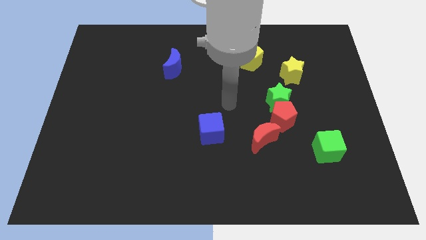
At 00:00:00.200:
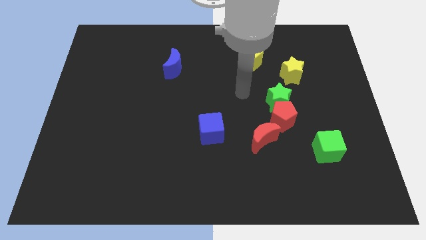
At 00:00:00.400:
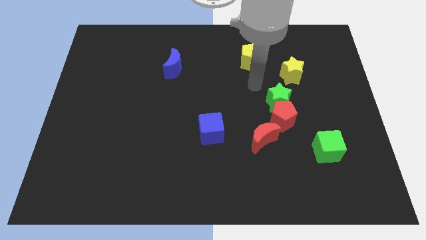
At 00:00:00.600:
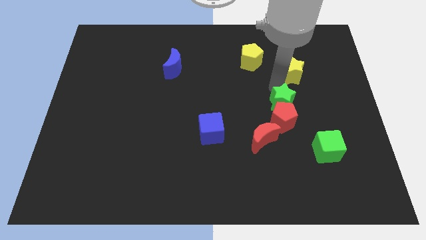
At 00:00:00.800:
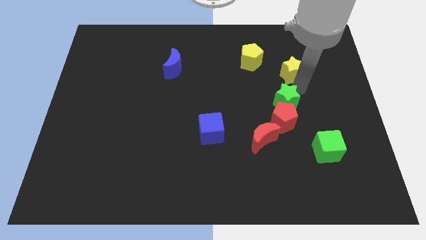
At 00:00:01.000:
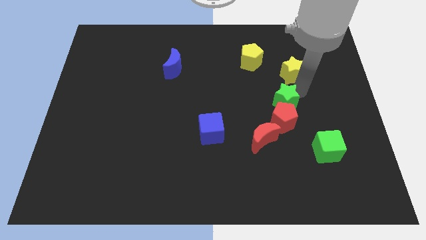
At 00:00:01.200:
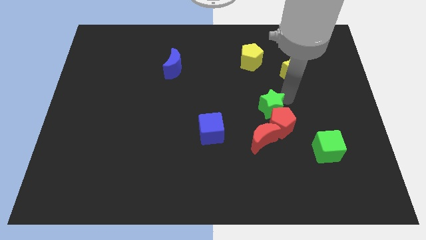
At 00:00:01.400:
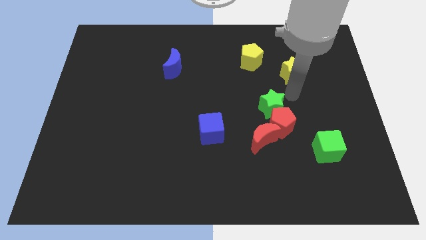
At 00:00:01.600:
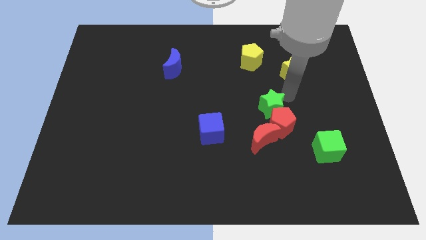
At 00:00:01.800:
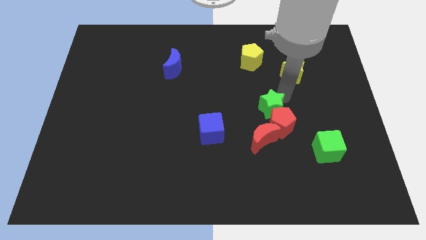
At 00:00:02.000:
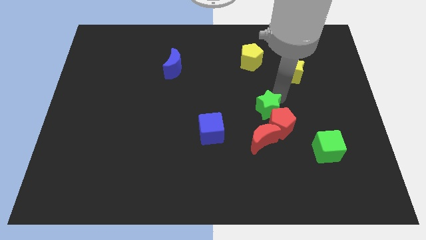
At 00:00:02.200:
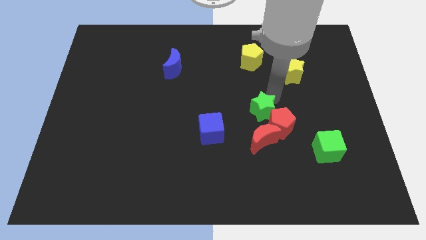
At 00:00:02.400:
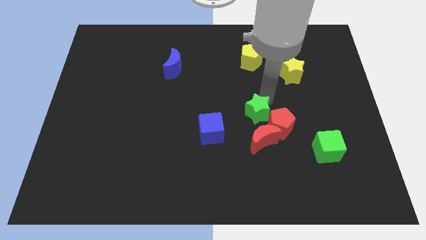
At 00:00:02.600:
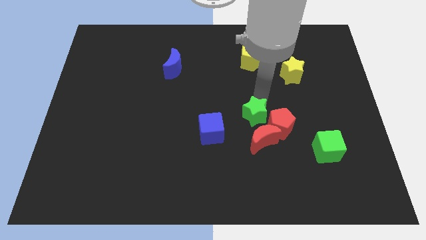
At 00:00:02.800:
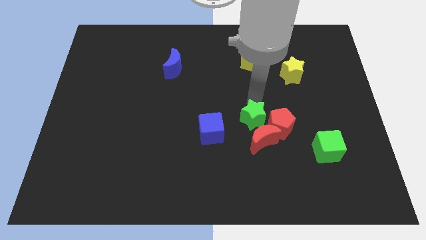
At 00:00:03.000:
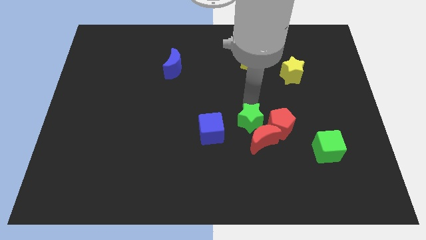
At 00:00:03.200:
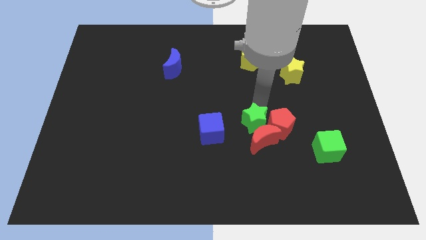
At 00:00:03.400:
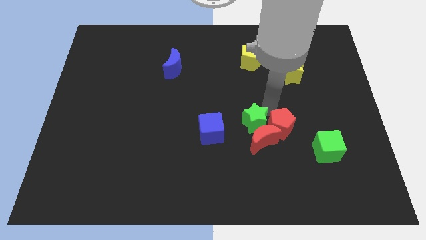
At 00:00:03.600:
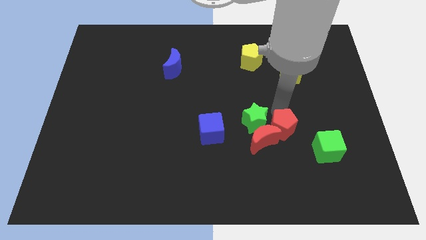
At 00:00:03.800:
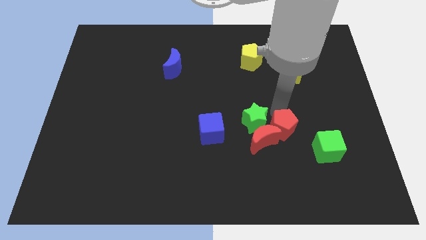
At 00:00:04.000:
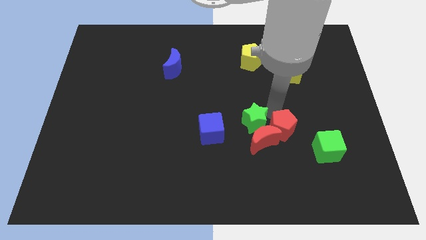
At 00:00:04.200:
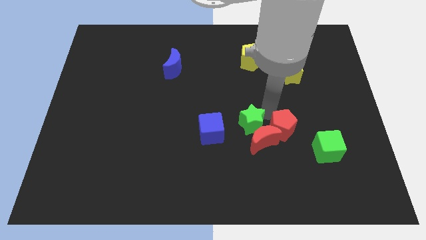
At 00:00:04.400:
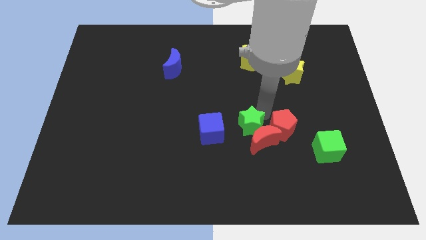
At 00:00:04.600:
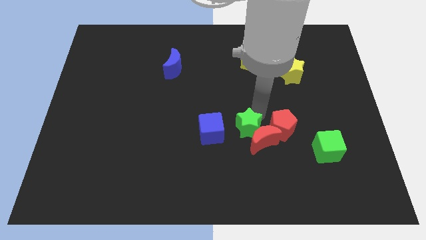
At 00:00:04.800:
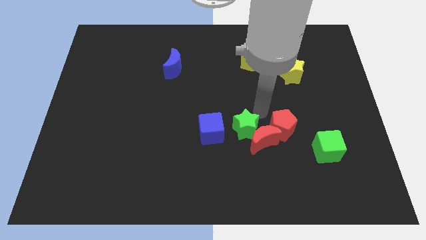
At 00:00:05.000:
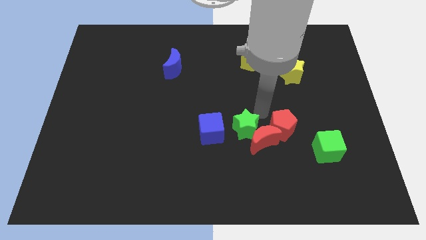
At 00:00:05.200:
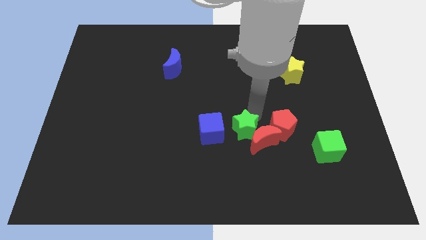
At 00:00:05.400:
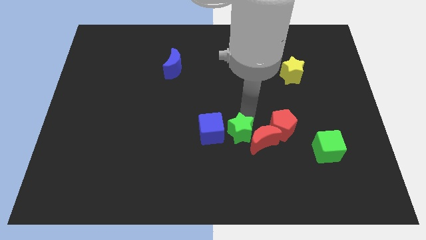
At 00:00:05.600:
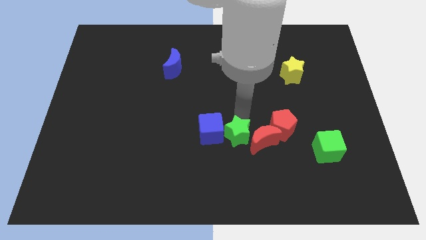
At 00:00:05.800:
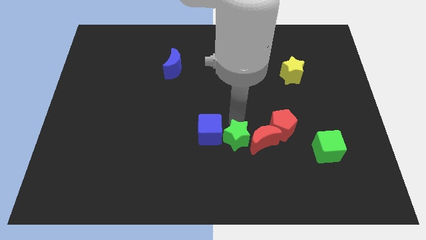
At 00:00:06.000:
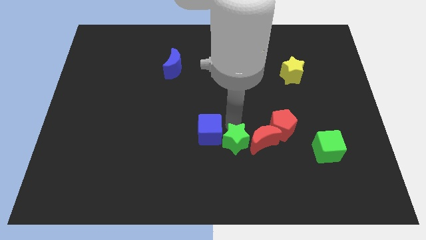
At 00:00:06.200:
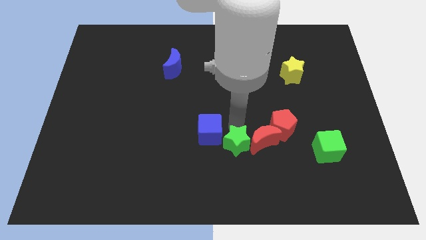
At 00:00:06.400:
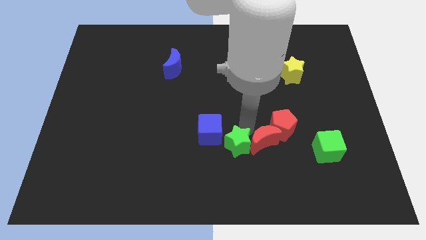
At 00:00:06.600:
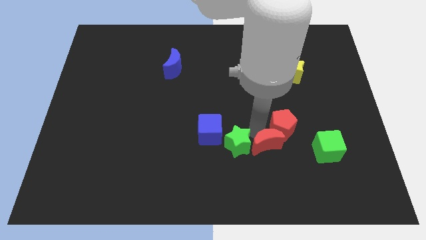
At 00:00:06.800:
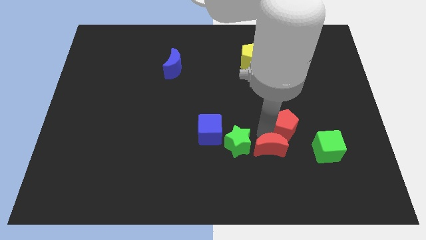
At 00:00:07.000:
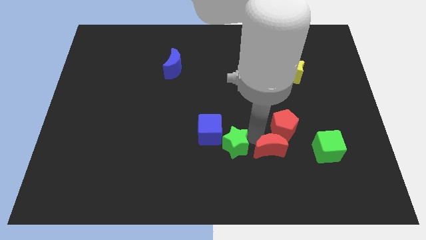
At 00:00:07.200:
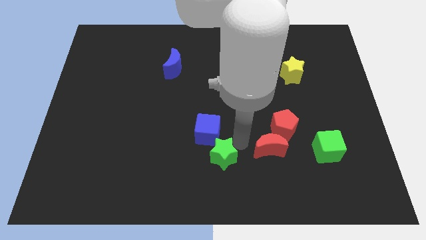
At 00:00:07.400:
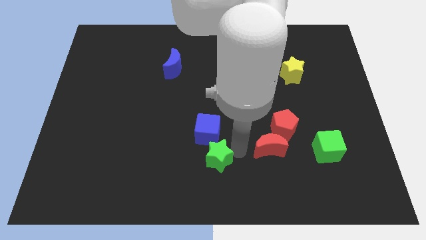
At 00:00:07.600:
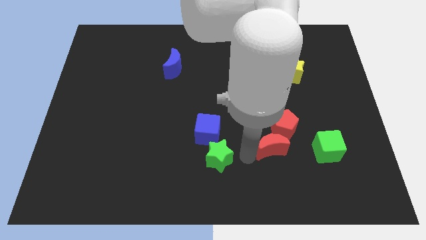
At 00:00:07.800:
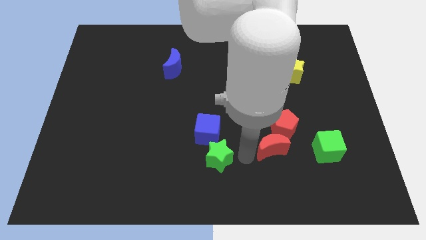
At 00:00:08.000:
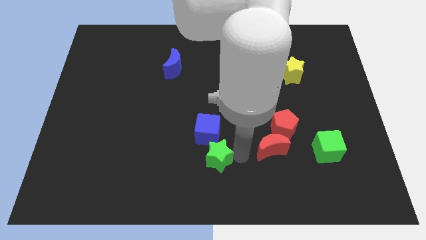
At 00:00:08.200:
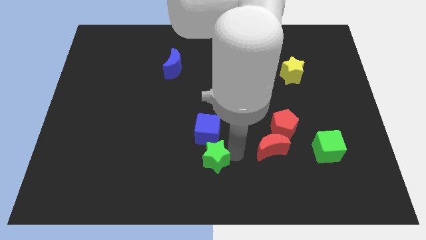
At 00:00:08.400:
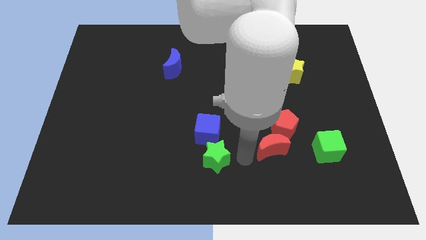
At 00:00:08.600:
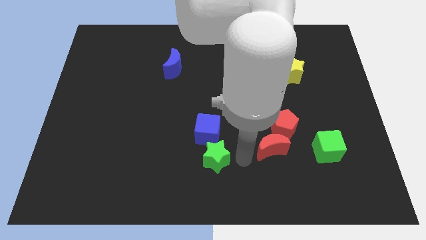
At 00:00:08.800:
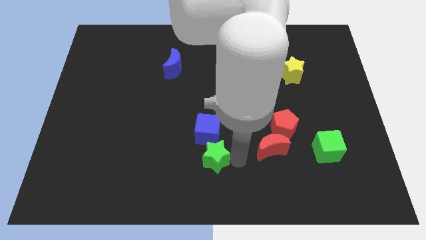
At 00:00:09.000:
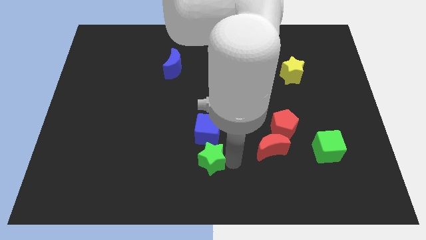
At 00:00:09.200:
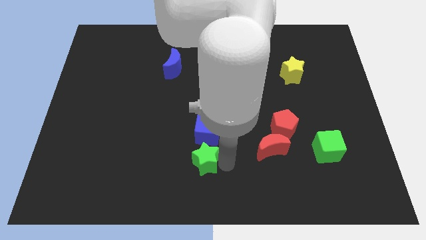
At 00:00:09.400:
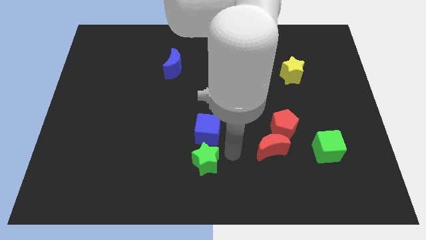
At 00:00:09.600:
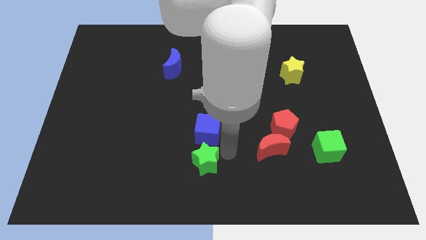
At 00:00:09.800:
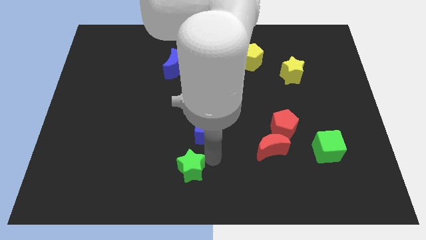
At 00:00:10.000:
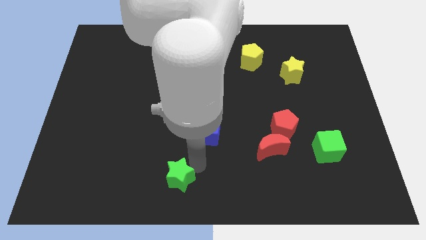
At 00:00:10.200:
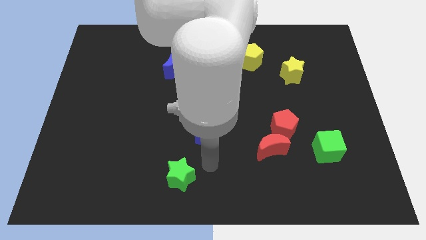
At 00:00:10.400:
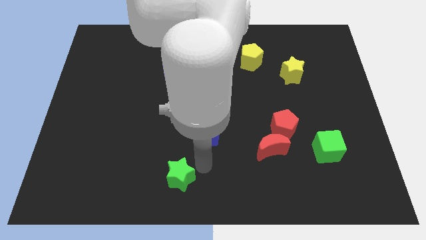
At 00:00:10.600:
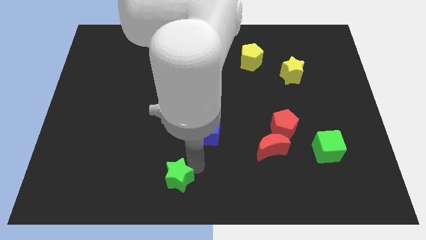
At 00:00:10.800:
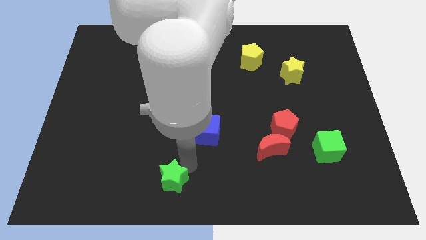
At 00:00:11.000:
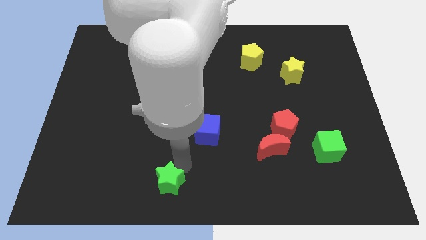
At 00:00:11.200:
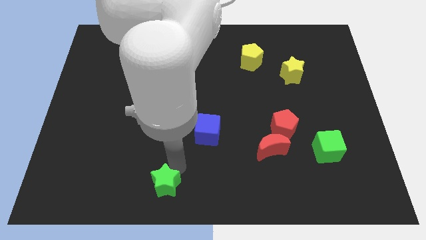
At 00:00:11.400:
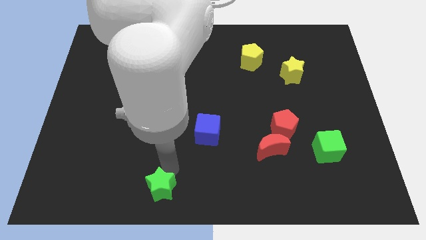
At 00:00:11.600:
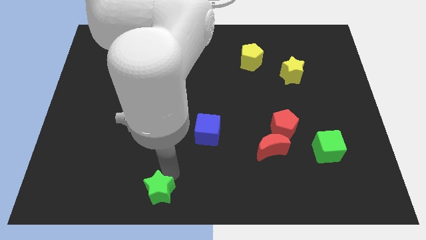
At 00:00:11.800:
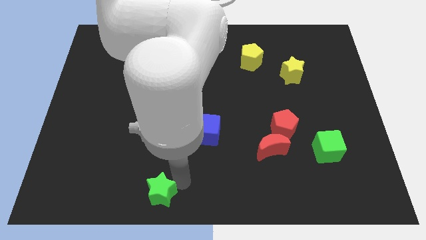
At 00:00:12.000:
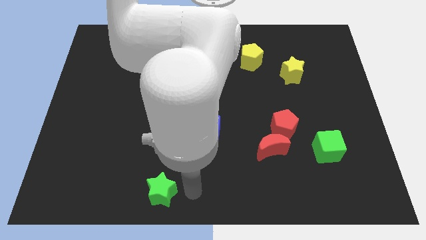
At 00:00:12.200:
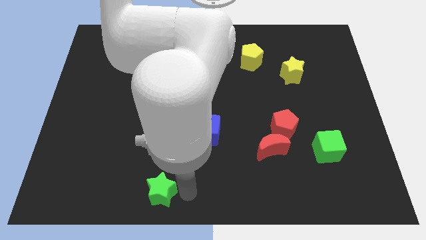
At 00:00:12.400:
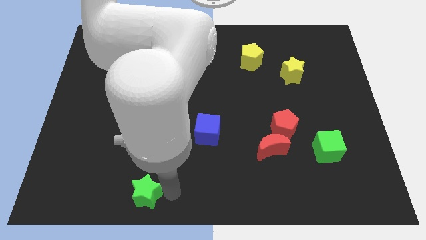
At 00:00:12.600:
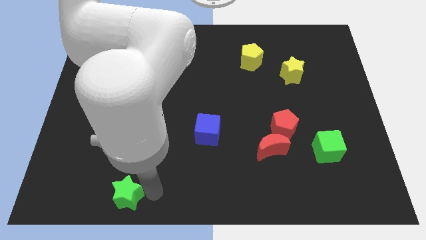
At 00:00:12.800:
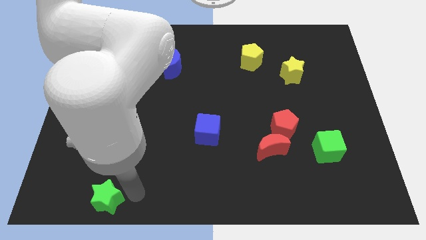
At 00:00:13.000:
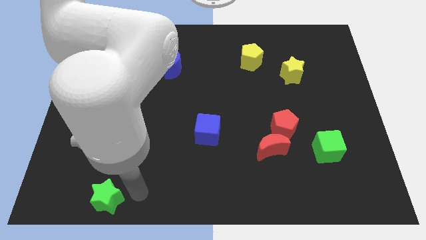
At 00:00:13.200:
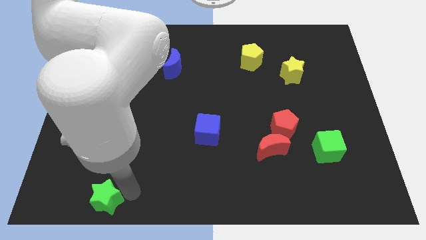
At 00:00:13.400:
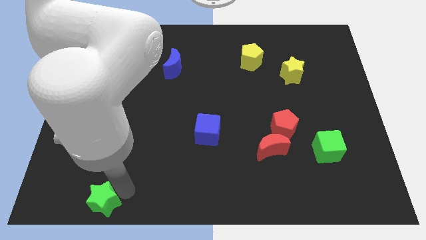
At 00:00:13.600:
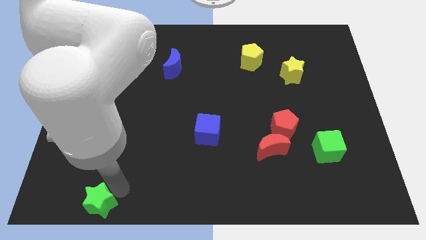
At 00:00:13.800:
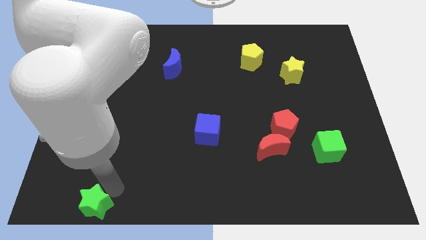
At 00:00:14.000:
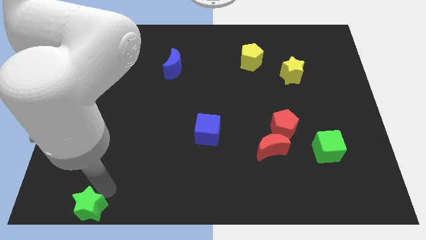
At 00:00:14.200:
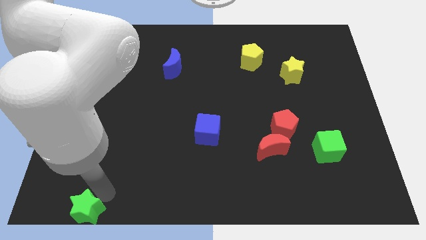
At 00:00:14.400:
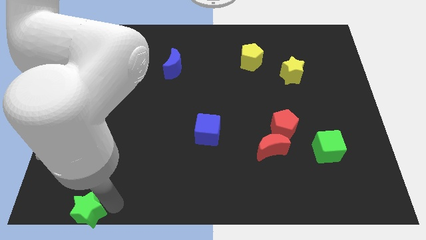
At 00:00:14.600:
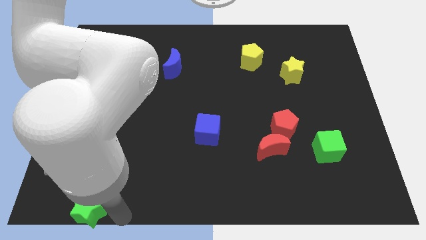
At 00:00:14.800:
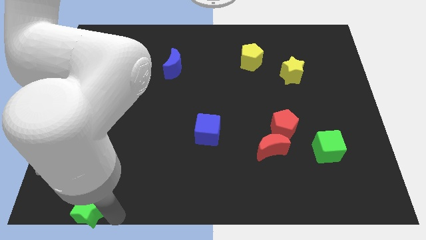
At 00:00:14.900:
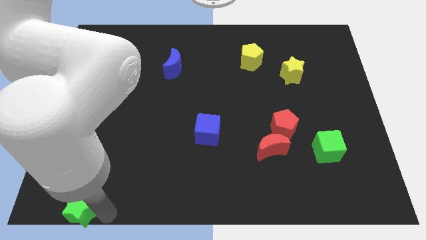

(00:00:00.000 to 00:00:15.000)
put the green star to the bottom left of the board
